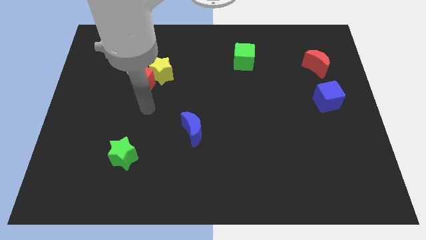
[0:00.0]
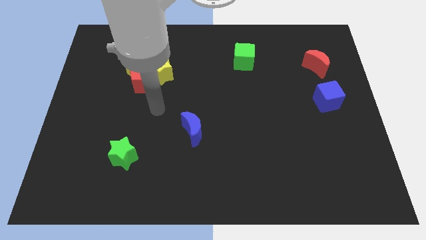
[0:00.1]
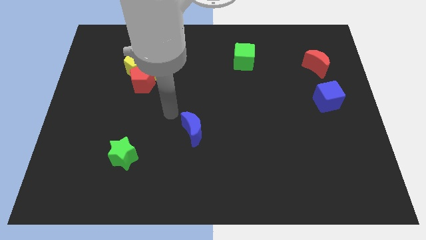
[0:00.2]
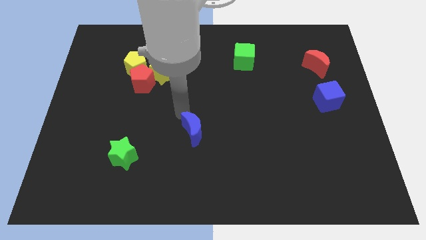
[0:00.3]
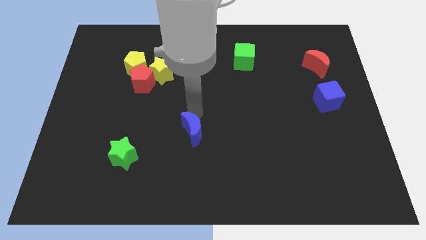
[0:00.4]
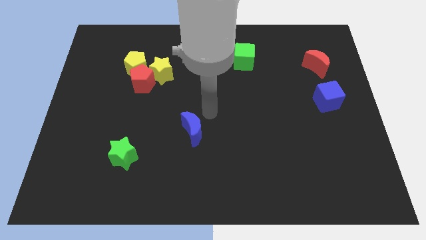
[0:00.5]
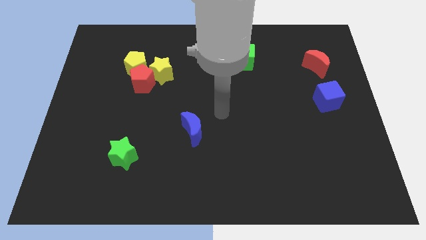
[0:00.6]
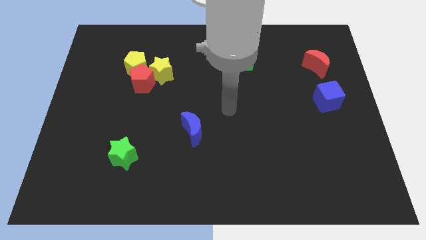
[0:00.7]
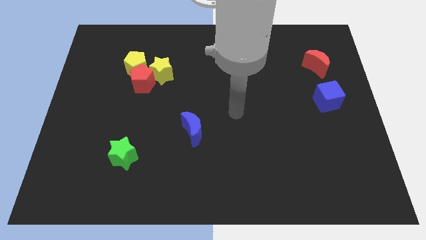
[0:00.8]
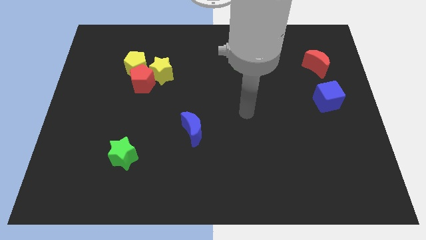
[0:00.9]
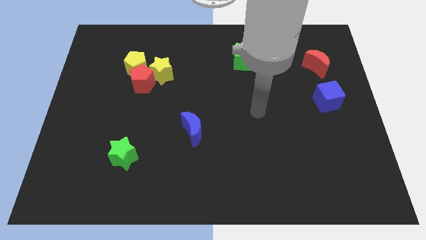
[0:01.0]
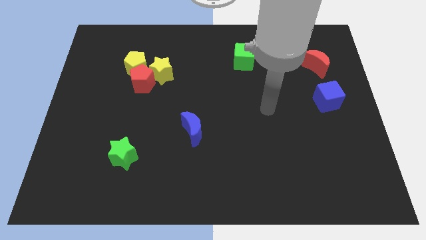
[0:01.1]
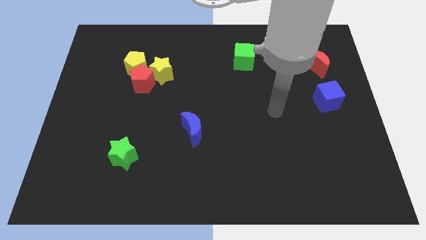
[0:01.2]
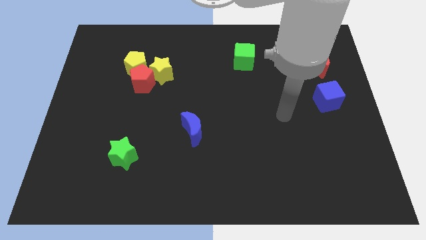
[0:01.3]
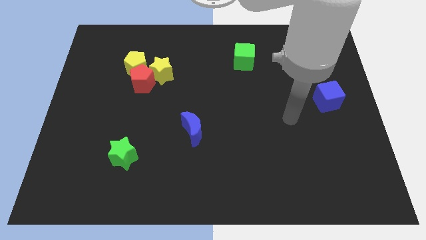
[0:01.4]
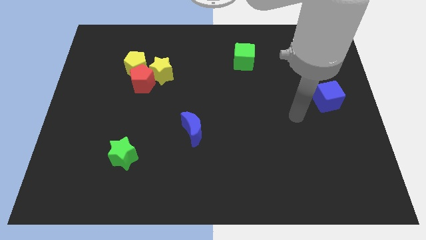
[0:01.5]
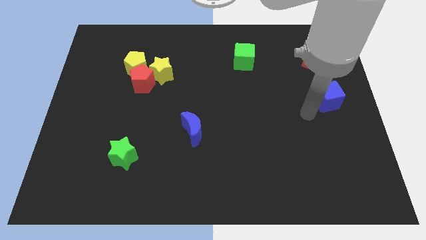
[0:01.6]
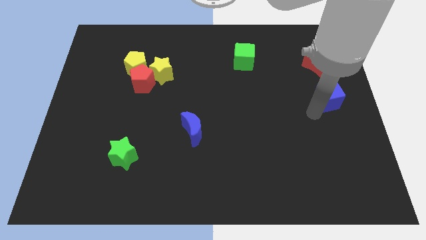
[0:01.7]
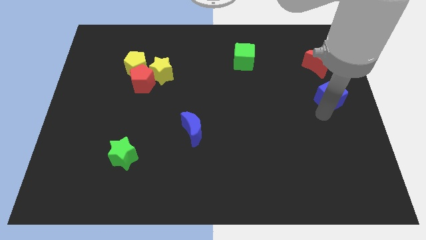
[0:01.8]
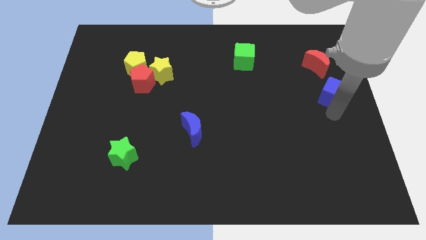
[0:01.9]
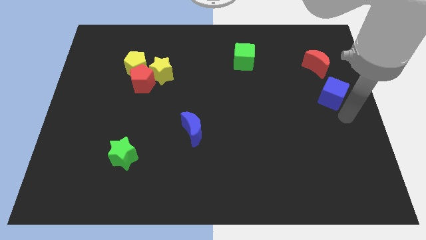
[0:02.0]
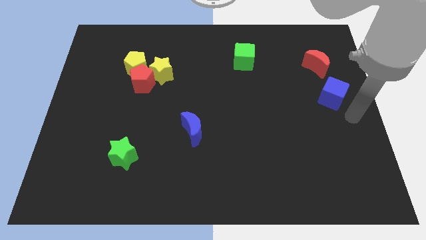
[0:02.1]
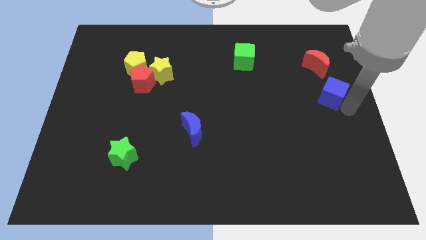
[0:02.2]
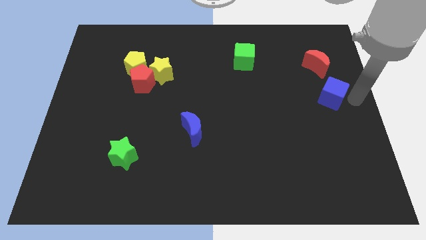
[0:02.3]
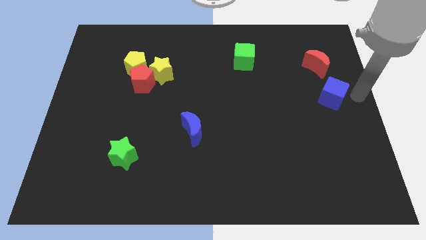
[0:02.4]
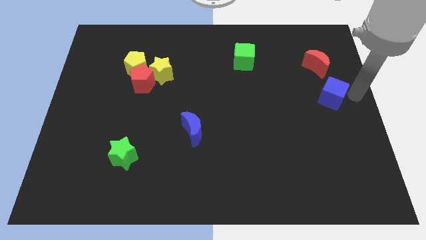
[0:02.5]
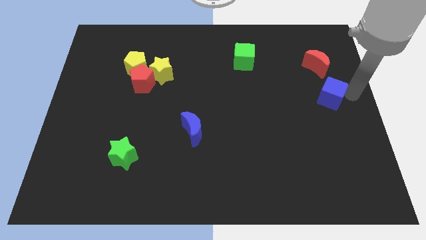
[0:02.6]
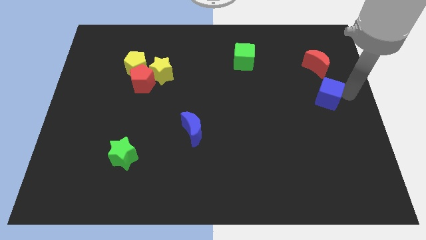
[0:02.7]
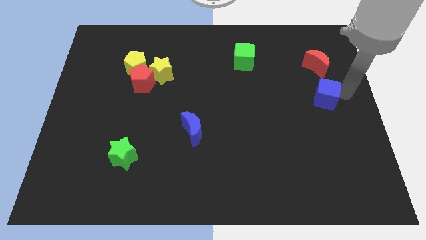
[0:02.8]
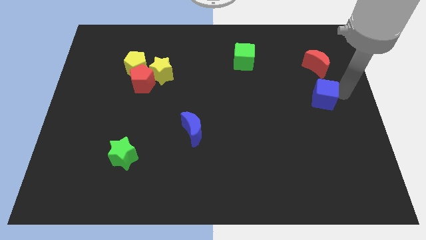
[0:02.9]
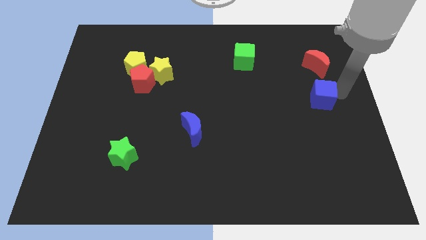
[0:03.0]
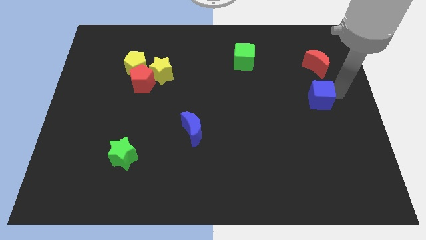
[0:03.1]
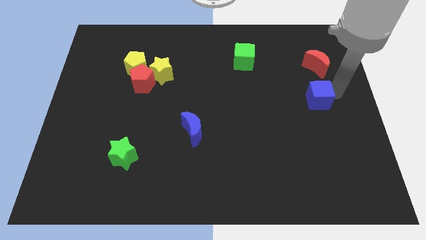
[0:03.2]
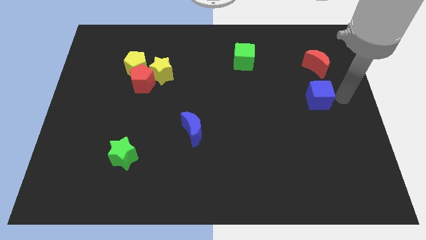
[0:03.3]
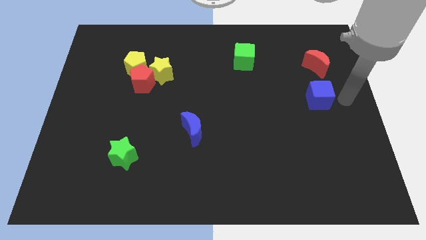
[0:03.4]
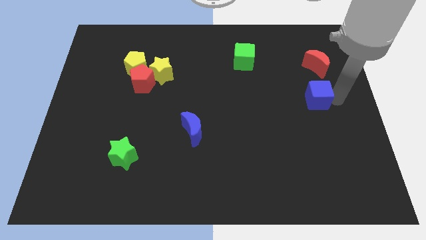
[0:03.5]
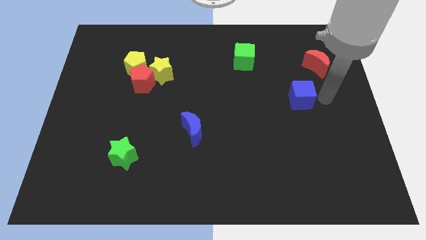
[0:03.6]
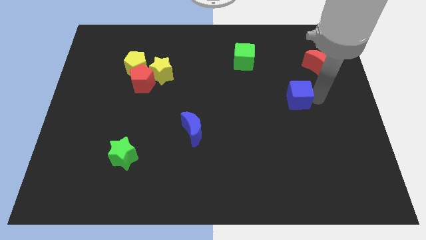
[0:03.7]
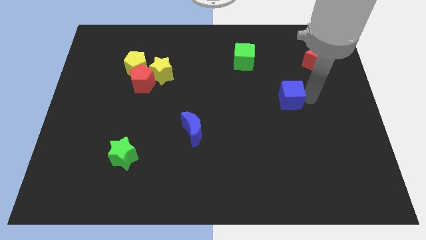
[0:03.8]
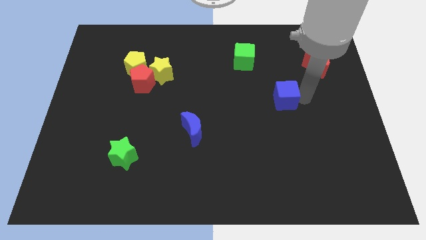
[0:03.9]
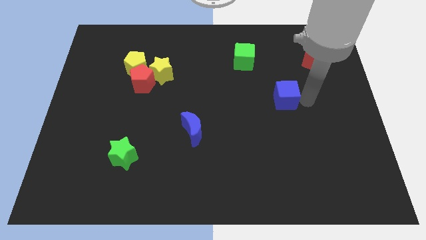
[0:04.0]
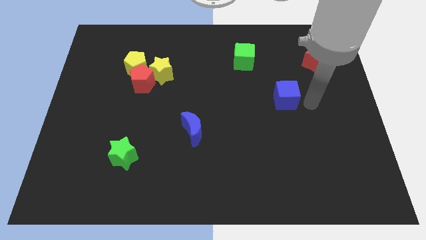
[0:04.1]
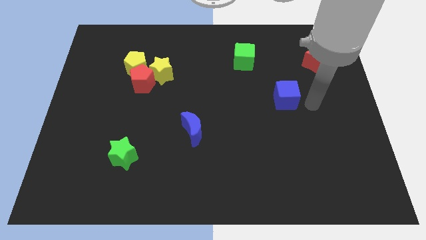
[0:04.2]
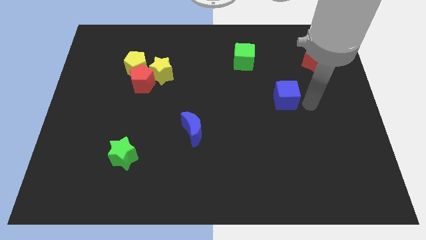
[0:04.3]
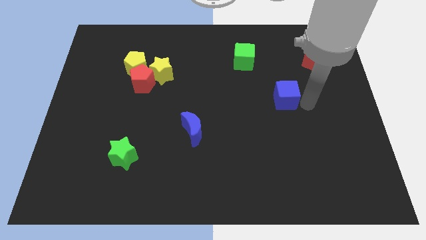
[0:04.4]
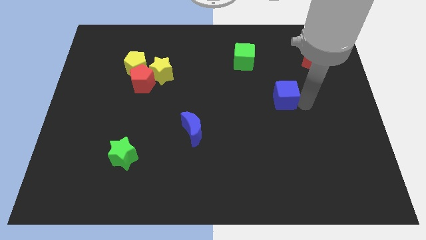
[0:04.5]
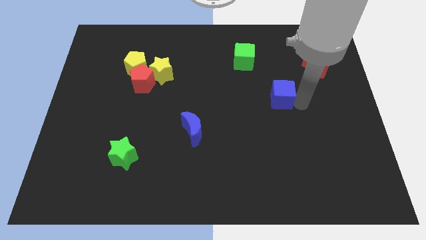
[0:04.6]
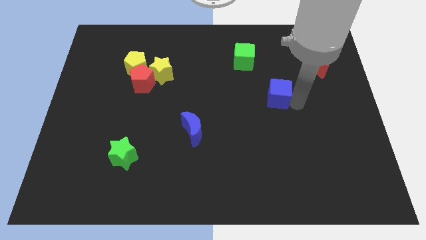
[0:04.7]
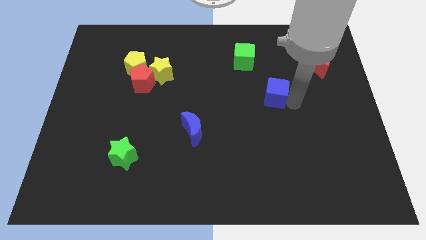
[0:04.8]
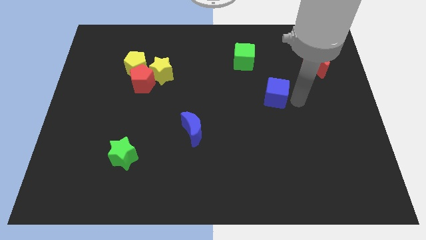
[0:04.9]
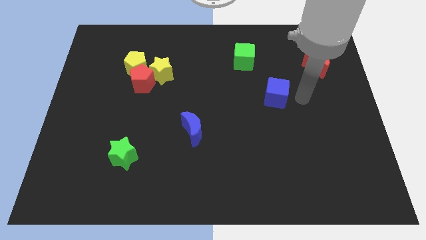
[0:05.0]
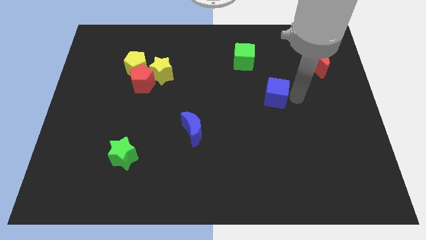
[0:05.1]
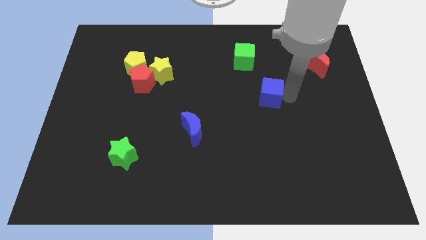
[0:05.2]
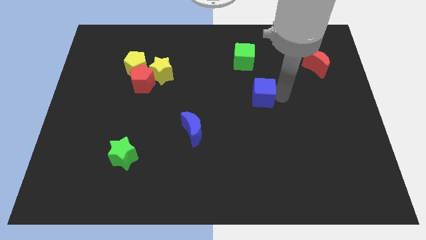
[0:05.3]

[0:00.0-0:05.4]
put the blue cube to the center of the board
